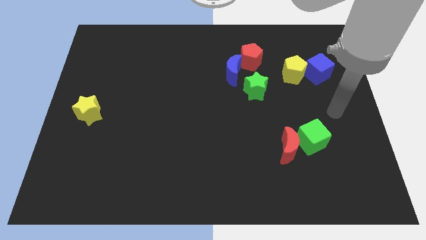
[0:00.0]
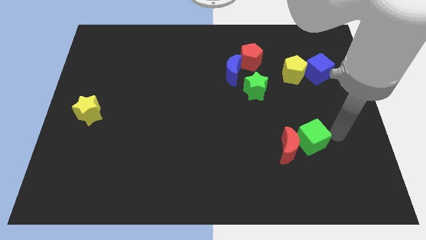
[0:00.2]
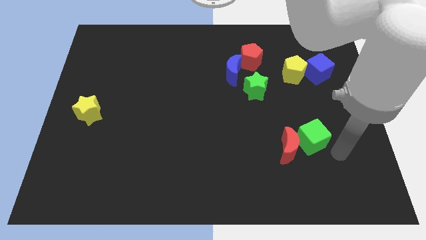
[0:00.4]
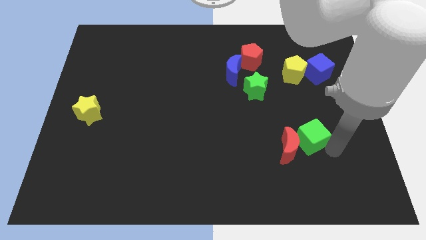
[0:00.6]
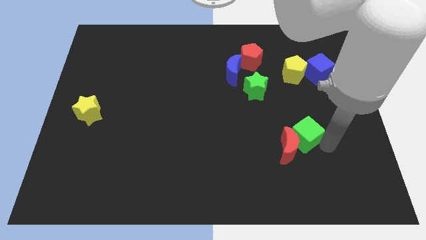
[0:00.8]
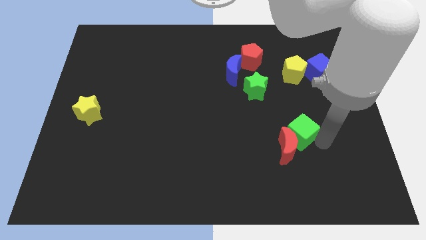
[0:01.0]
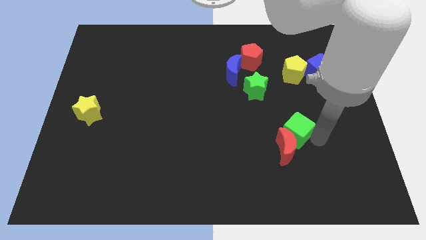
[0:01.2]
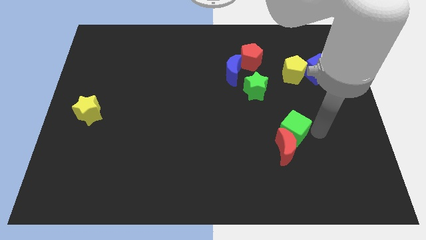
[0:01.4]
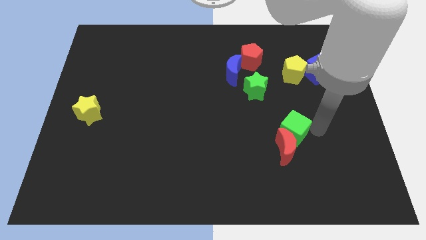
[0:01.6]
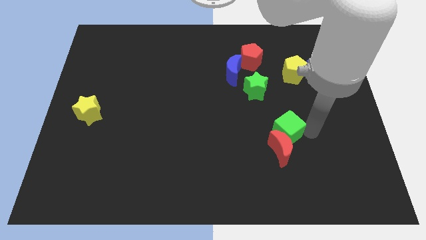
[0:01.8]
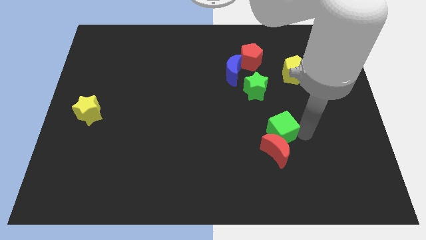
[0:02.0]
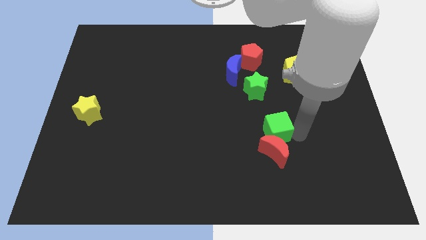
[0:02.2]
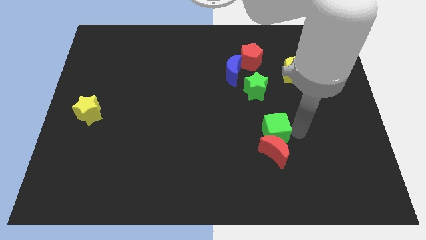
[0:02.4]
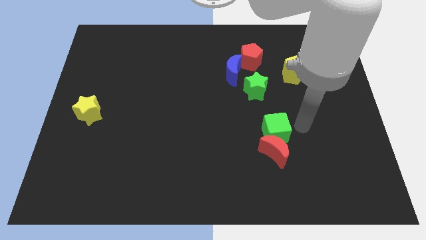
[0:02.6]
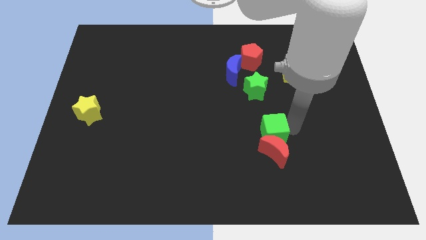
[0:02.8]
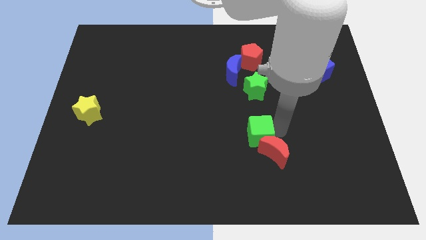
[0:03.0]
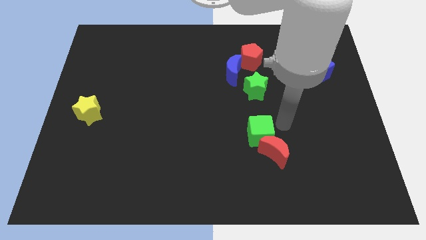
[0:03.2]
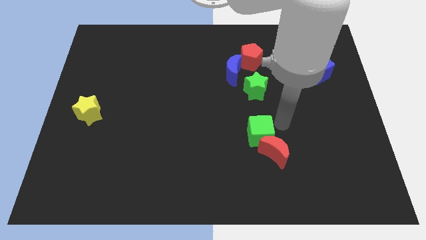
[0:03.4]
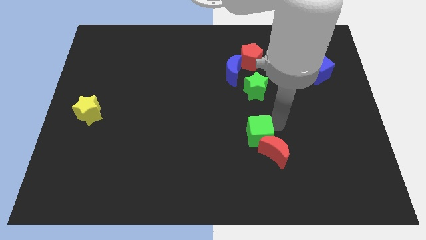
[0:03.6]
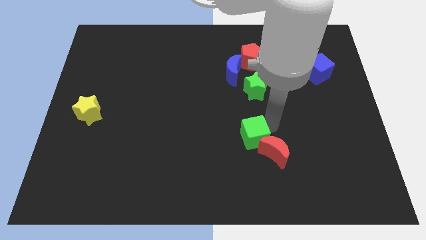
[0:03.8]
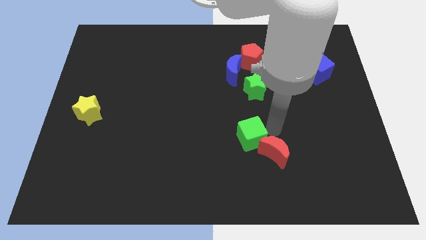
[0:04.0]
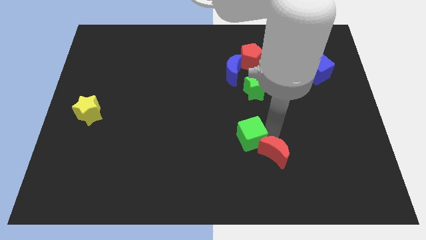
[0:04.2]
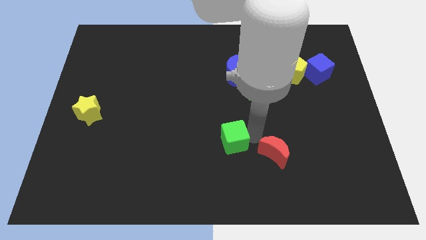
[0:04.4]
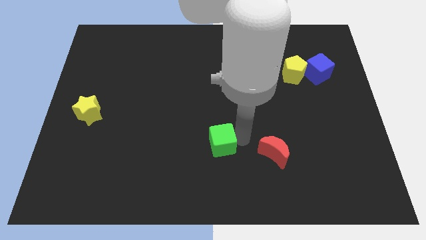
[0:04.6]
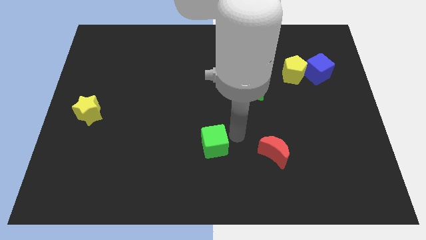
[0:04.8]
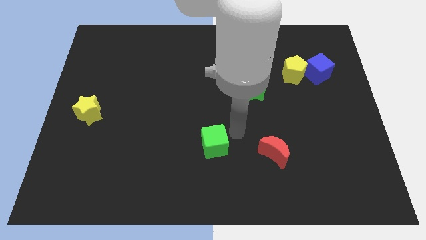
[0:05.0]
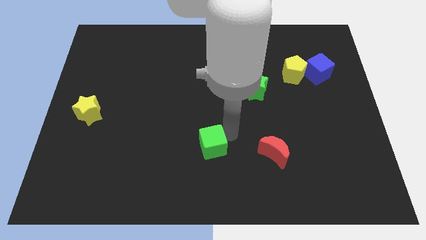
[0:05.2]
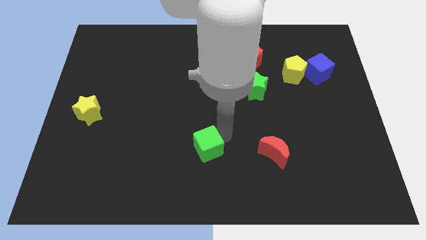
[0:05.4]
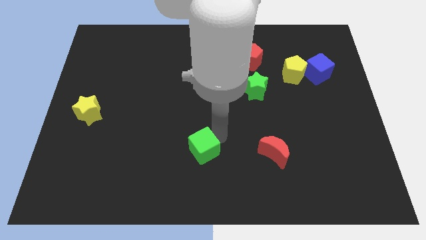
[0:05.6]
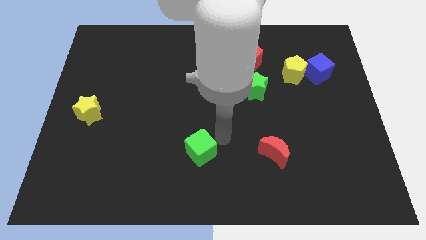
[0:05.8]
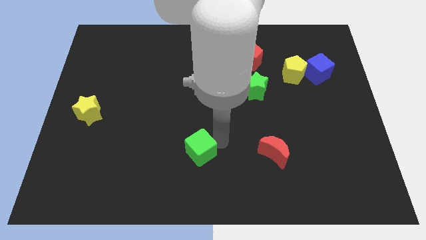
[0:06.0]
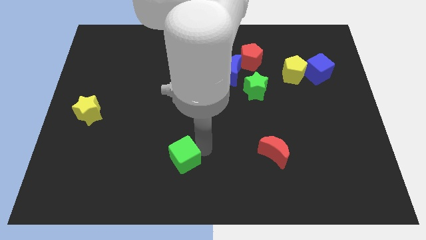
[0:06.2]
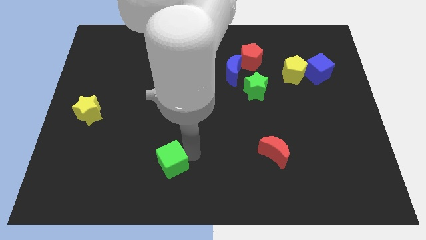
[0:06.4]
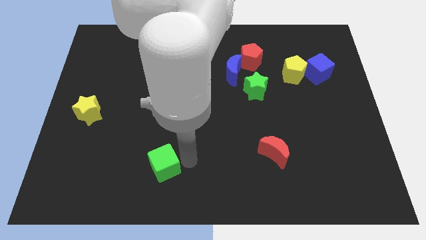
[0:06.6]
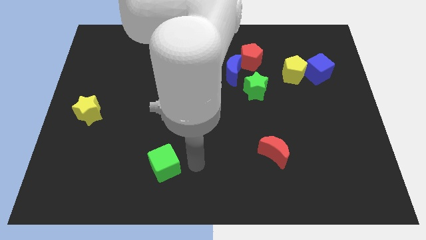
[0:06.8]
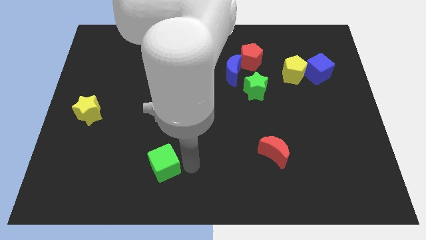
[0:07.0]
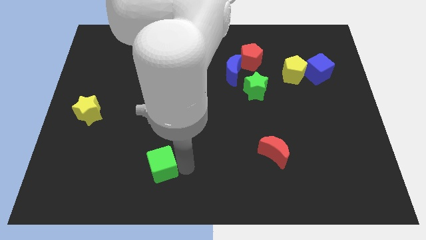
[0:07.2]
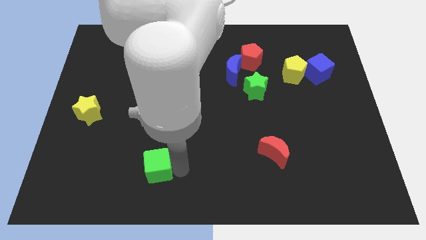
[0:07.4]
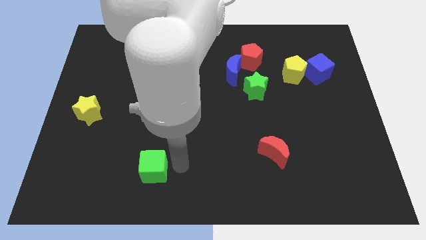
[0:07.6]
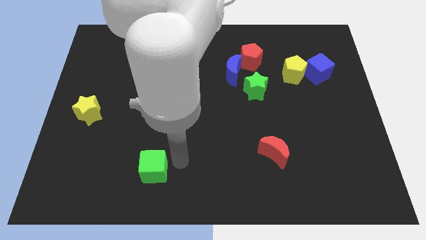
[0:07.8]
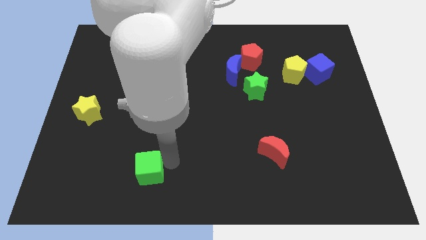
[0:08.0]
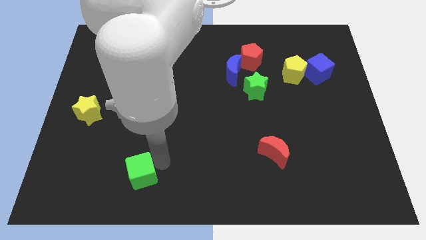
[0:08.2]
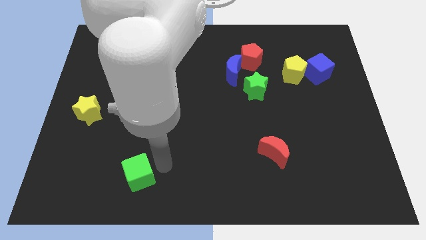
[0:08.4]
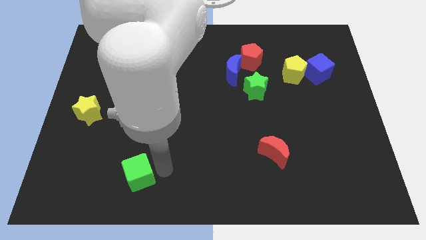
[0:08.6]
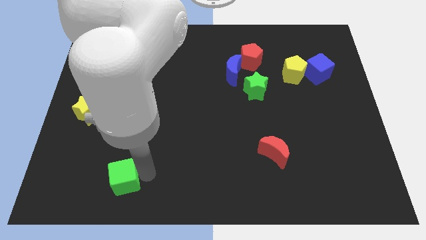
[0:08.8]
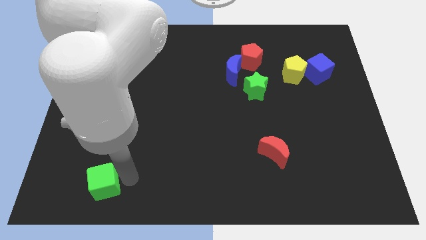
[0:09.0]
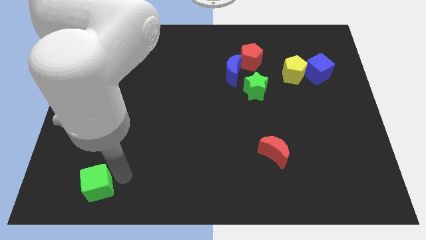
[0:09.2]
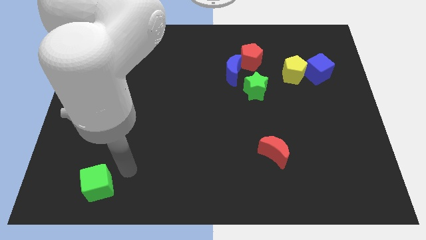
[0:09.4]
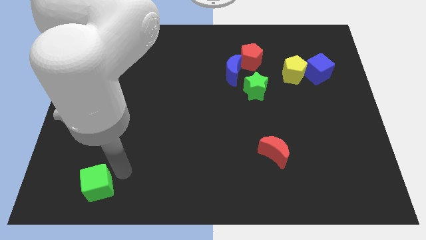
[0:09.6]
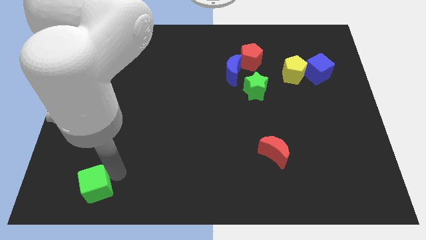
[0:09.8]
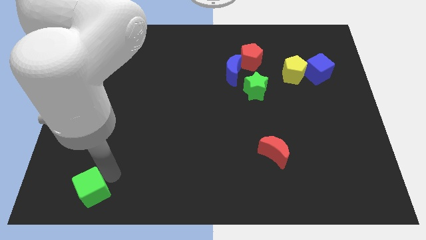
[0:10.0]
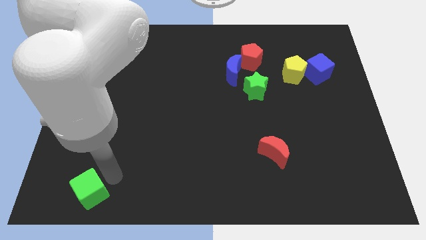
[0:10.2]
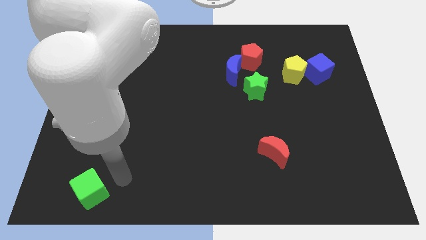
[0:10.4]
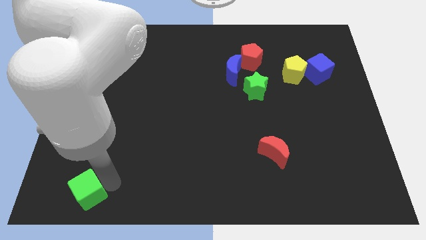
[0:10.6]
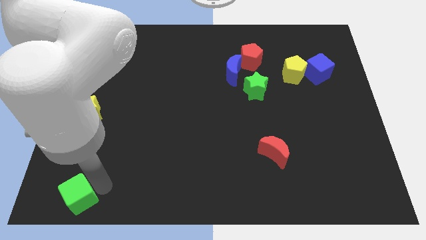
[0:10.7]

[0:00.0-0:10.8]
push the green cube to the bottom left

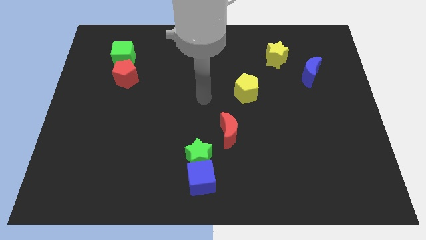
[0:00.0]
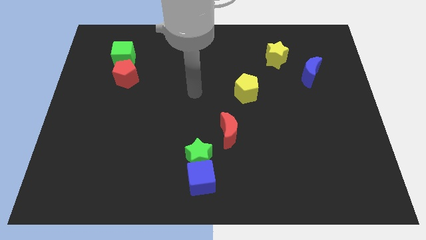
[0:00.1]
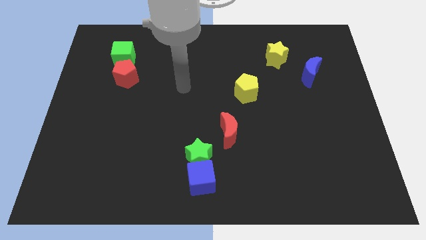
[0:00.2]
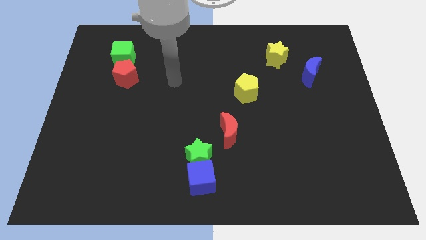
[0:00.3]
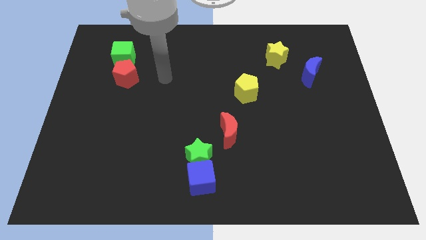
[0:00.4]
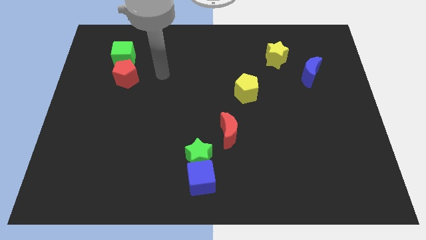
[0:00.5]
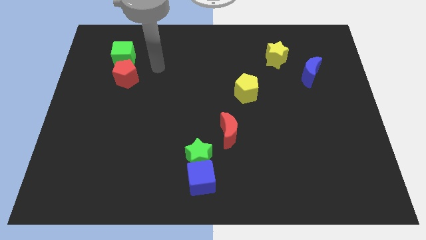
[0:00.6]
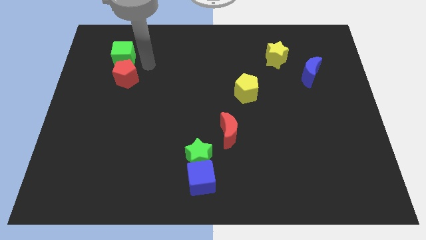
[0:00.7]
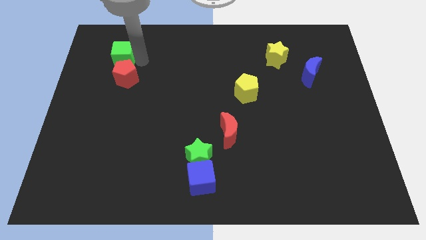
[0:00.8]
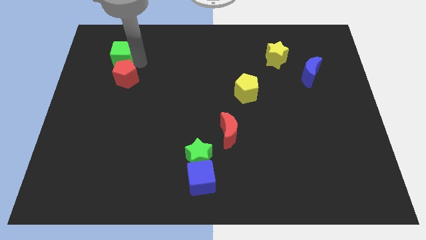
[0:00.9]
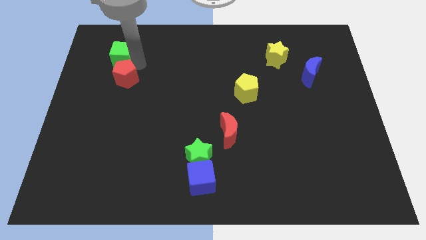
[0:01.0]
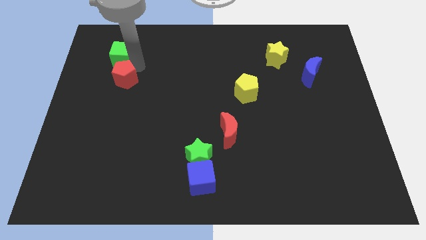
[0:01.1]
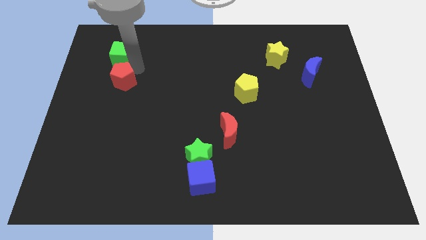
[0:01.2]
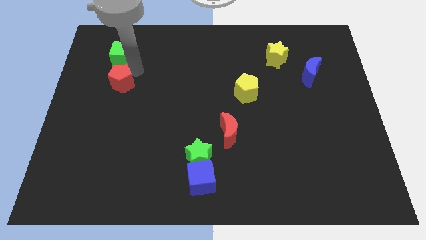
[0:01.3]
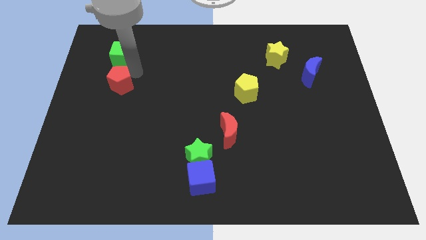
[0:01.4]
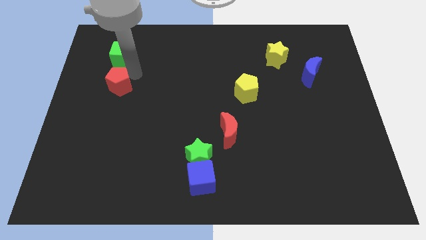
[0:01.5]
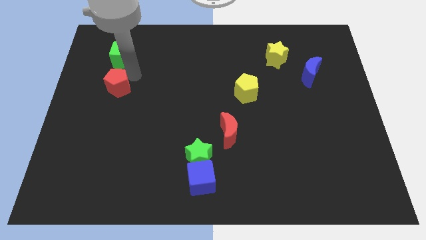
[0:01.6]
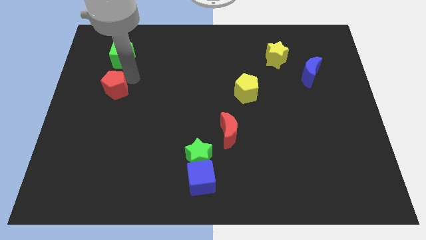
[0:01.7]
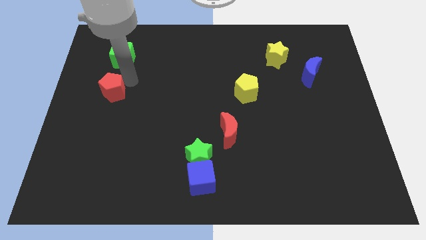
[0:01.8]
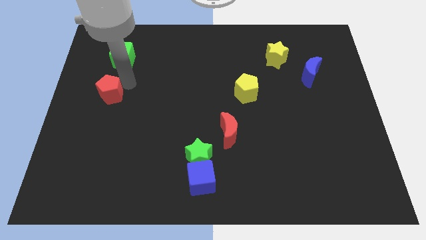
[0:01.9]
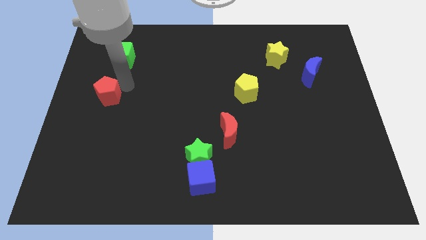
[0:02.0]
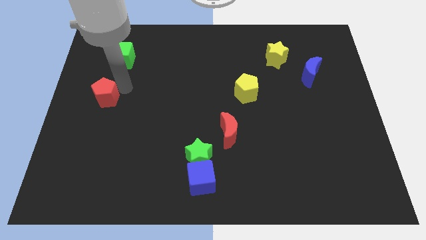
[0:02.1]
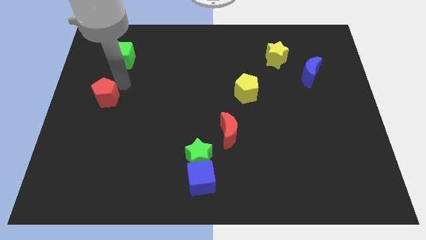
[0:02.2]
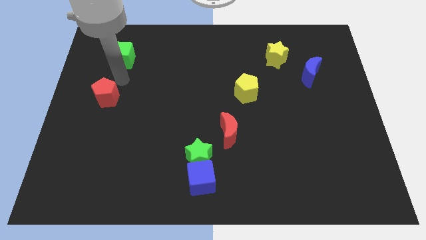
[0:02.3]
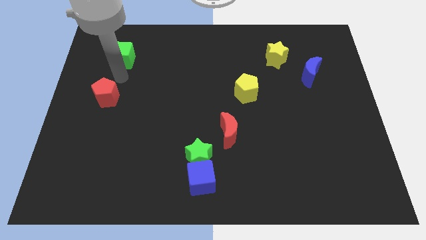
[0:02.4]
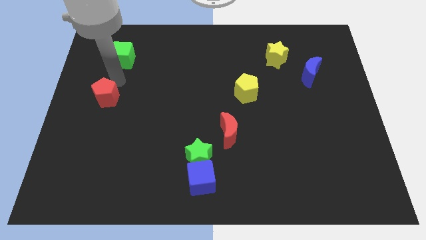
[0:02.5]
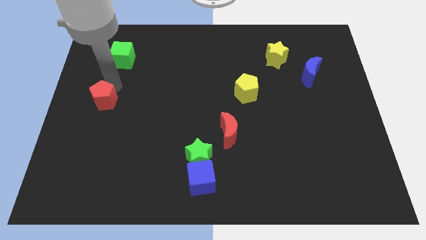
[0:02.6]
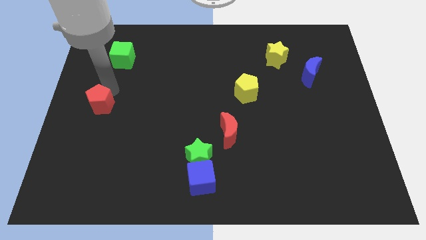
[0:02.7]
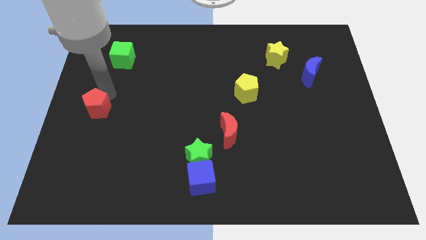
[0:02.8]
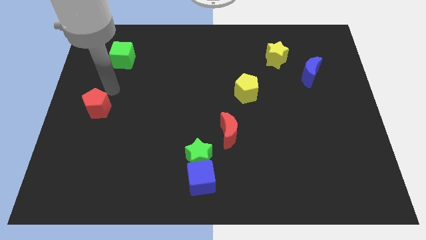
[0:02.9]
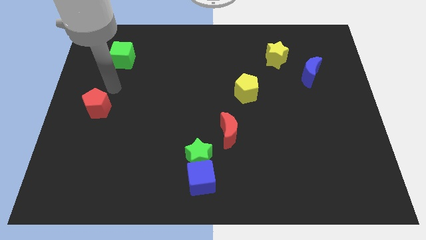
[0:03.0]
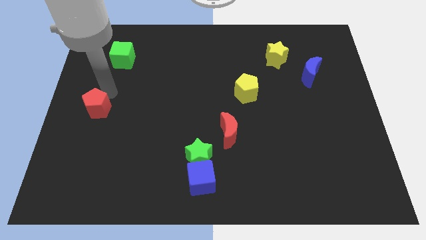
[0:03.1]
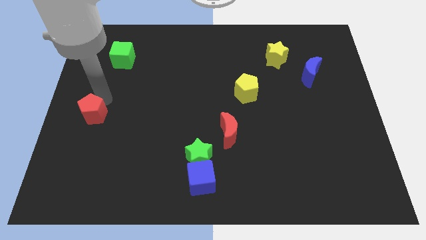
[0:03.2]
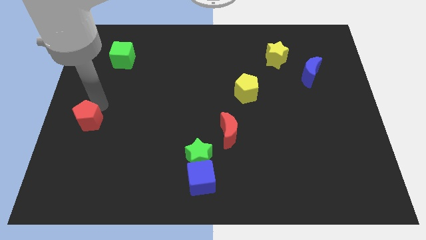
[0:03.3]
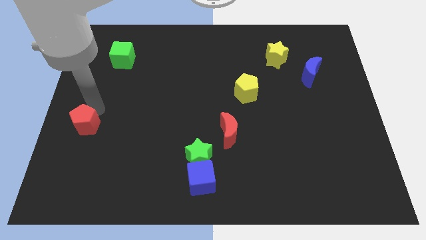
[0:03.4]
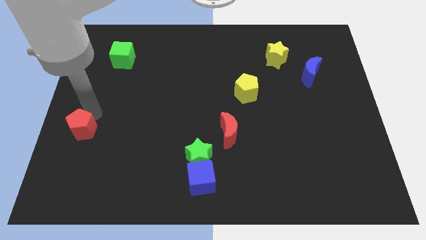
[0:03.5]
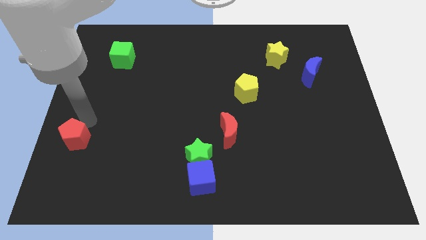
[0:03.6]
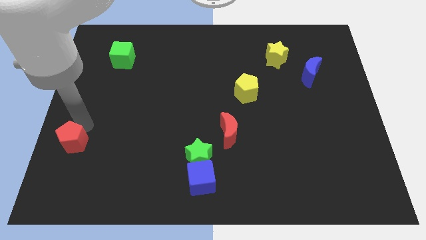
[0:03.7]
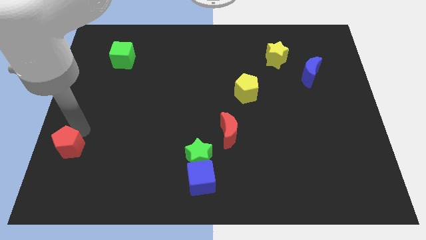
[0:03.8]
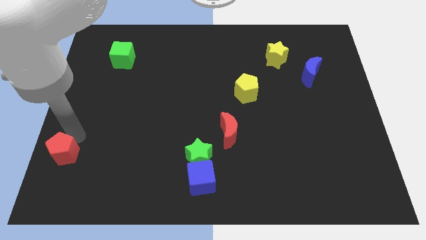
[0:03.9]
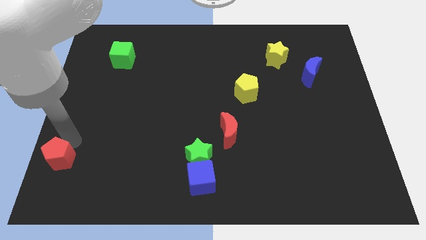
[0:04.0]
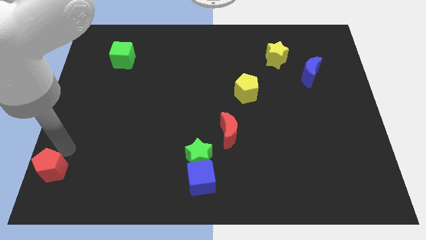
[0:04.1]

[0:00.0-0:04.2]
push the red pentagon to the bottom left
